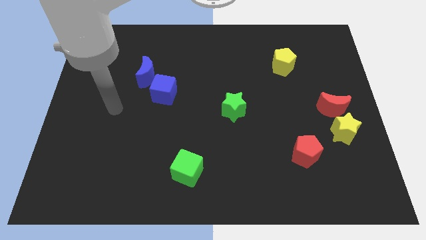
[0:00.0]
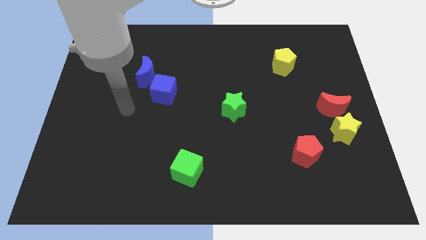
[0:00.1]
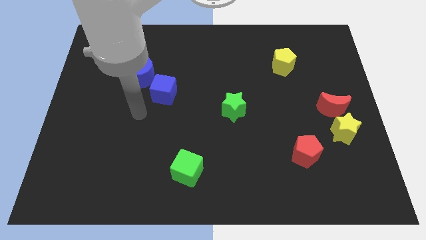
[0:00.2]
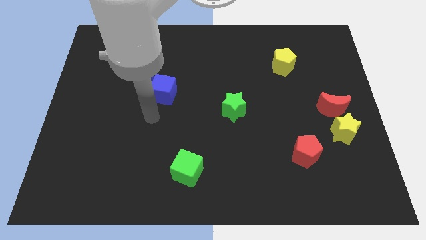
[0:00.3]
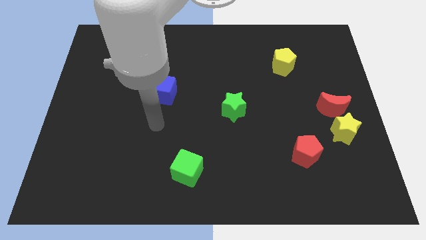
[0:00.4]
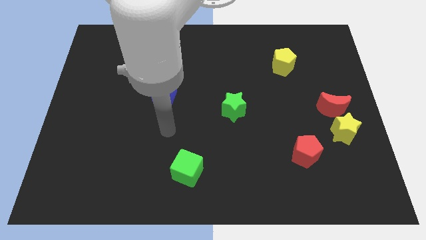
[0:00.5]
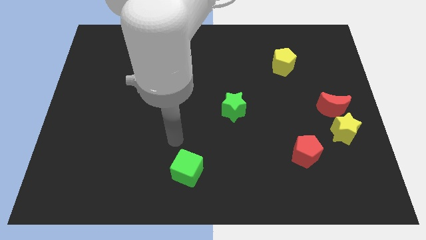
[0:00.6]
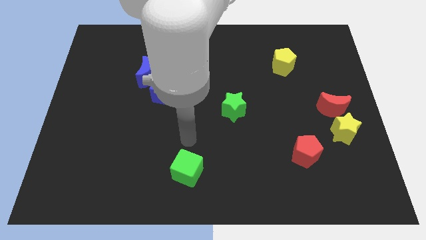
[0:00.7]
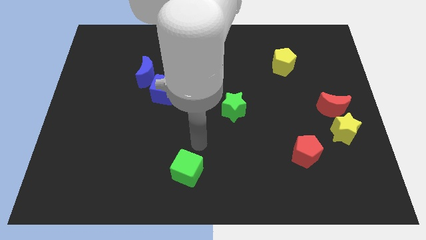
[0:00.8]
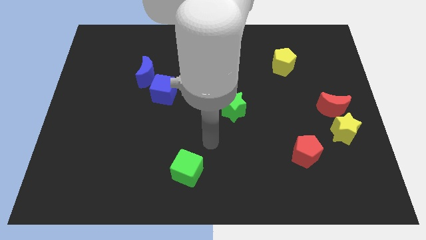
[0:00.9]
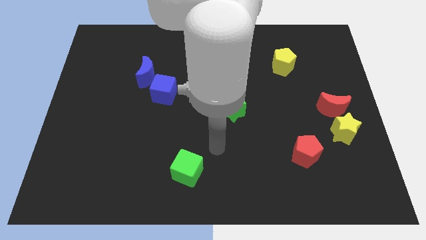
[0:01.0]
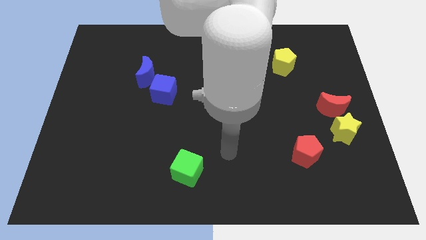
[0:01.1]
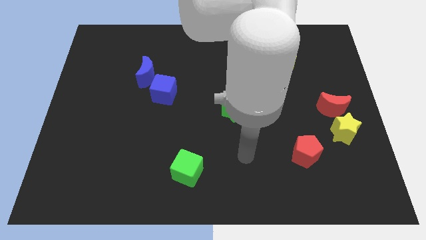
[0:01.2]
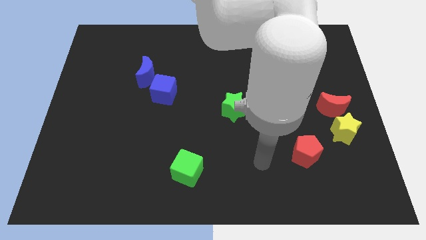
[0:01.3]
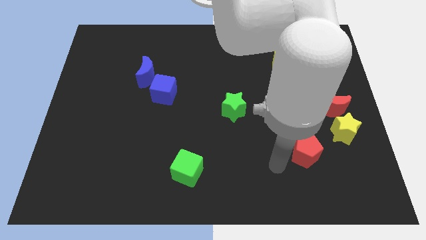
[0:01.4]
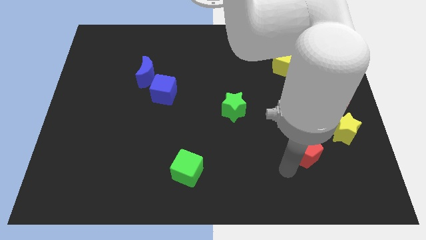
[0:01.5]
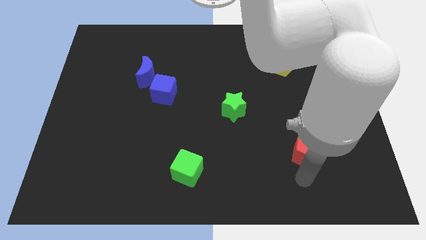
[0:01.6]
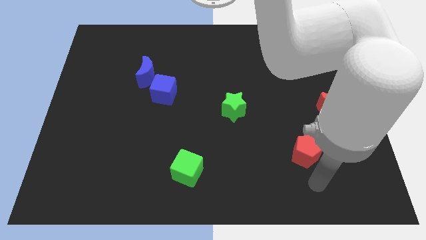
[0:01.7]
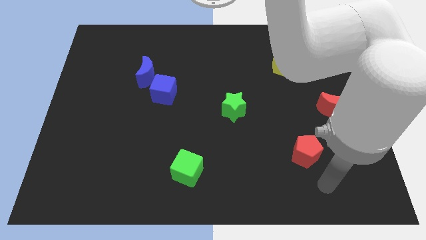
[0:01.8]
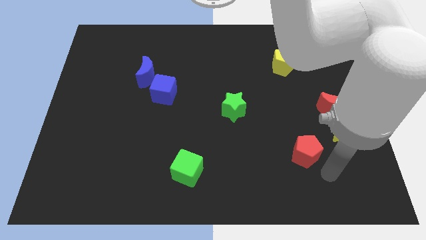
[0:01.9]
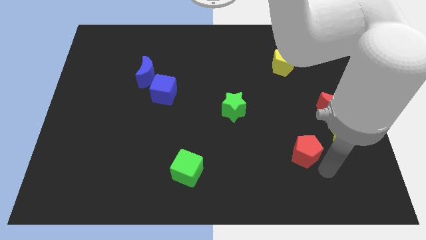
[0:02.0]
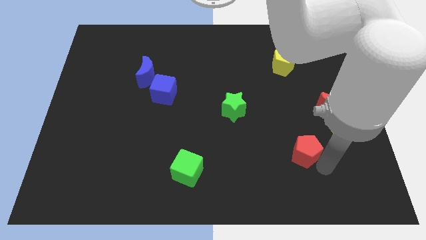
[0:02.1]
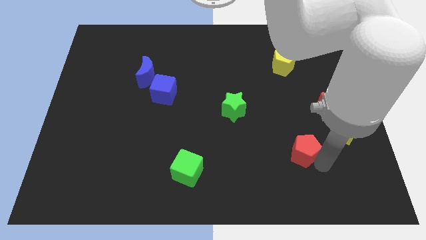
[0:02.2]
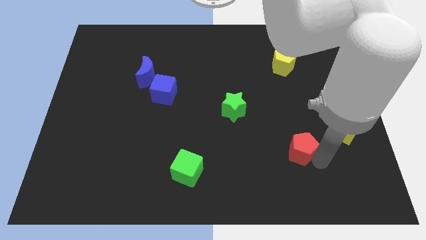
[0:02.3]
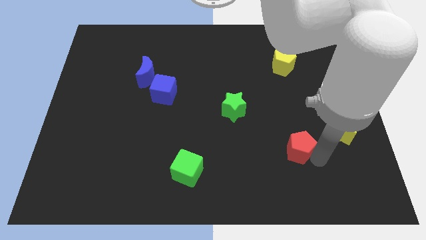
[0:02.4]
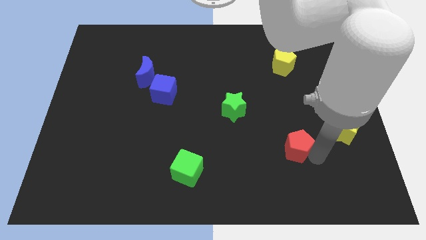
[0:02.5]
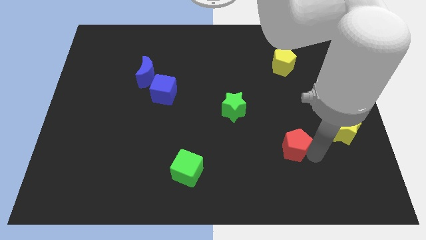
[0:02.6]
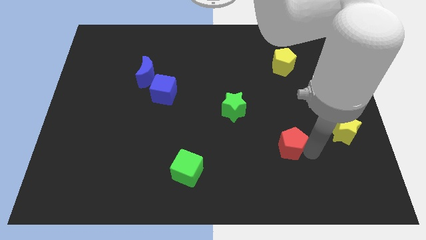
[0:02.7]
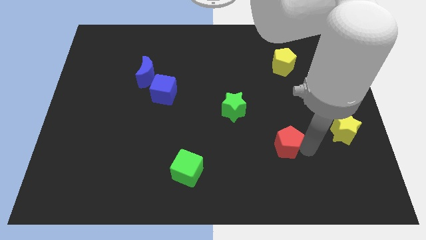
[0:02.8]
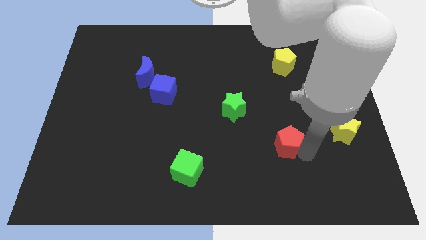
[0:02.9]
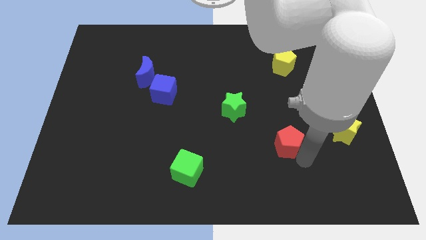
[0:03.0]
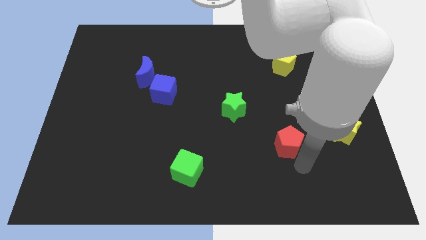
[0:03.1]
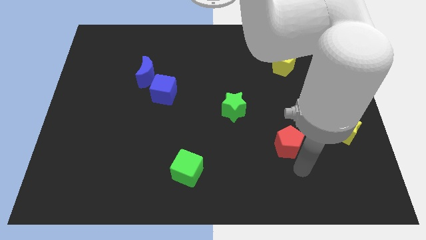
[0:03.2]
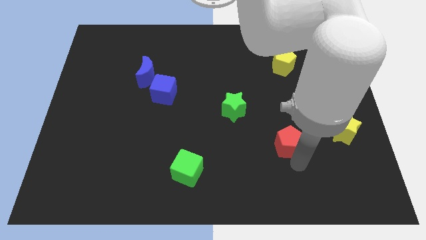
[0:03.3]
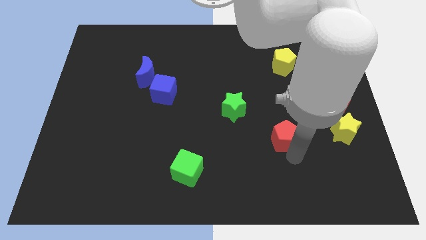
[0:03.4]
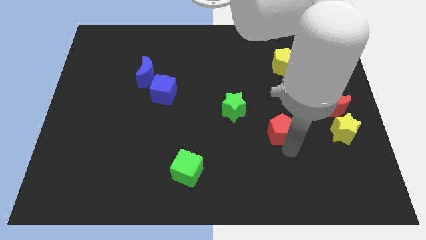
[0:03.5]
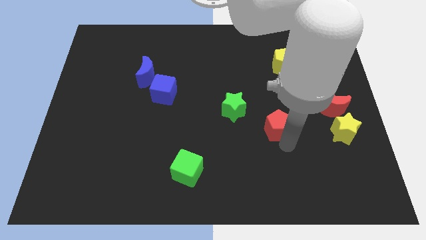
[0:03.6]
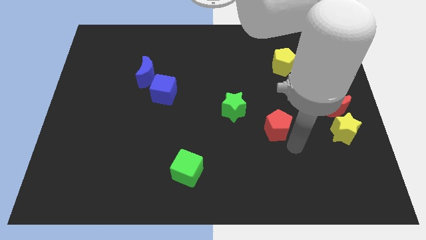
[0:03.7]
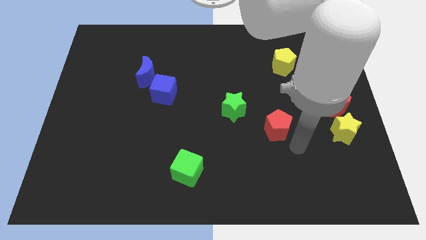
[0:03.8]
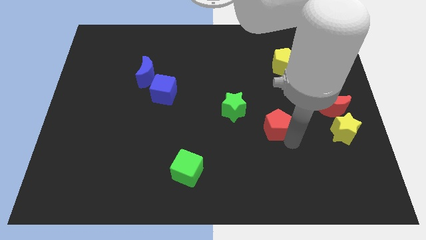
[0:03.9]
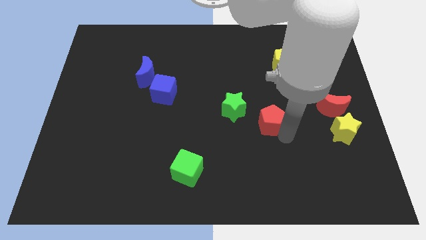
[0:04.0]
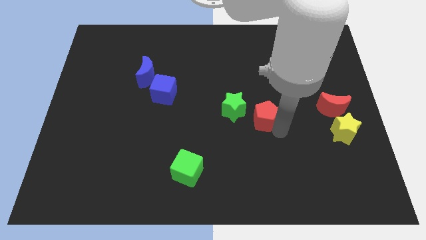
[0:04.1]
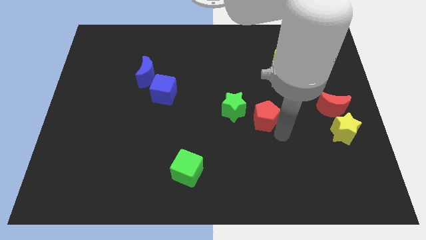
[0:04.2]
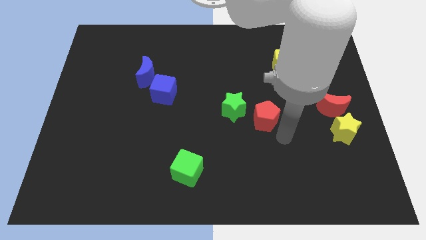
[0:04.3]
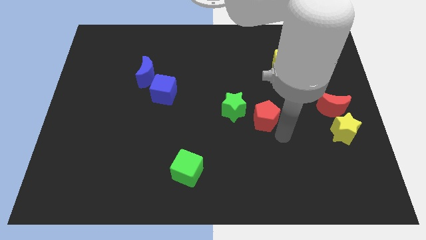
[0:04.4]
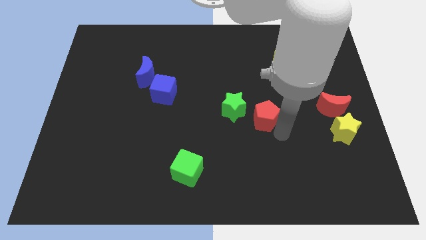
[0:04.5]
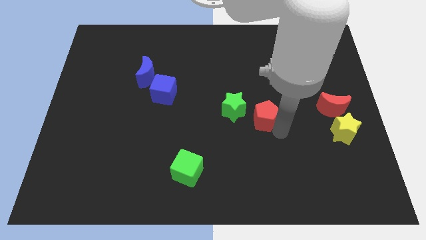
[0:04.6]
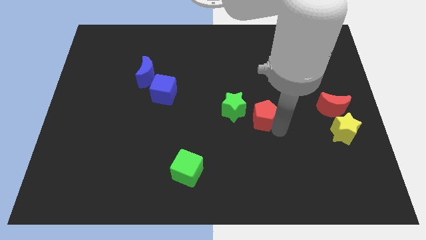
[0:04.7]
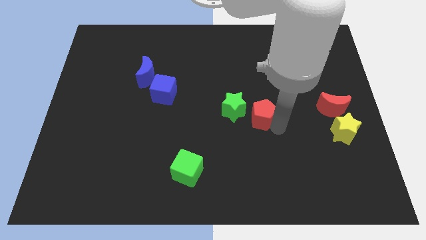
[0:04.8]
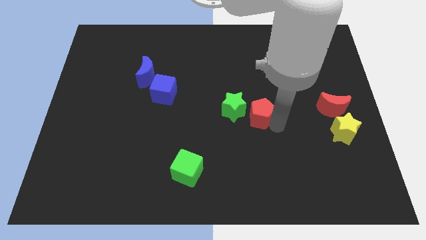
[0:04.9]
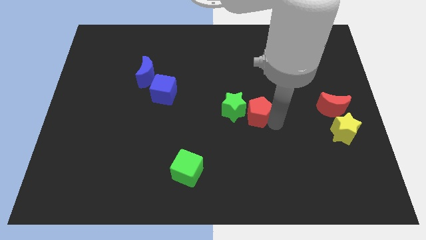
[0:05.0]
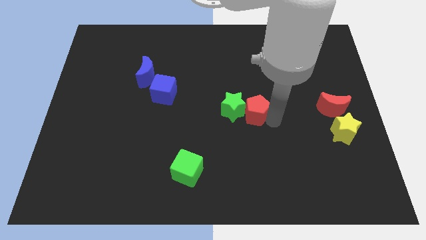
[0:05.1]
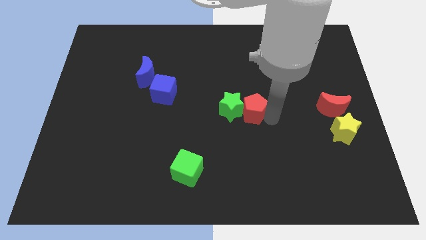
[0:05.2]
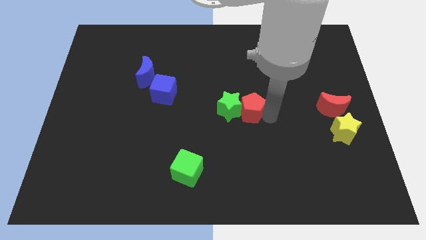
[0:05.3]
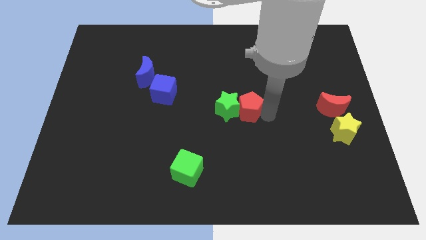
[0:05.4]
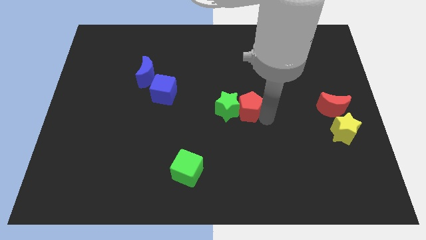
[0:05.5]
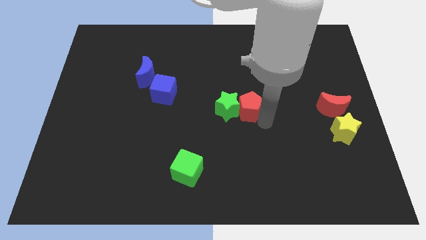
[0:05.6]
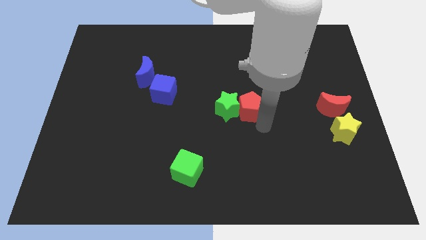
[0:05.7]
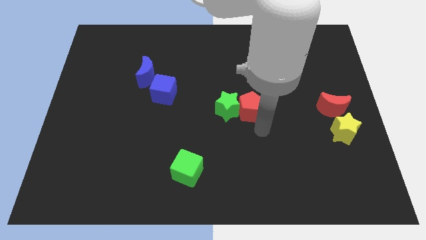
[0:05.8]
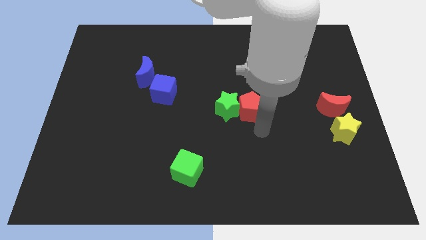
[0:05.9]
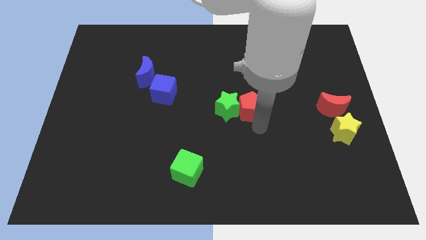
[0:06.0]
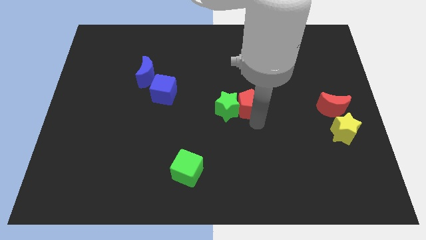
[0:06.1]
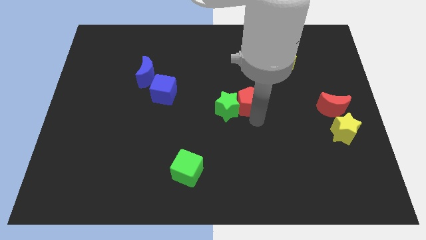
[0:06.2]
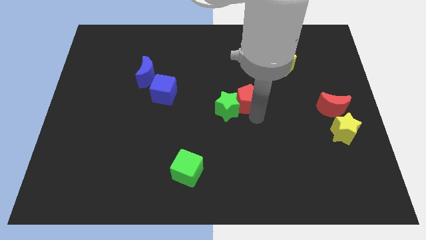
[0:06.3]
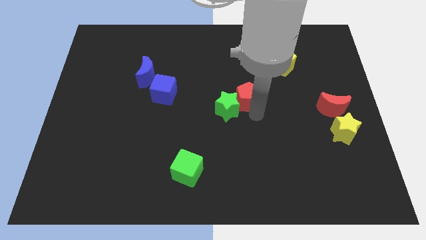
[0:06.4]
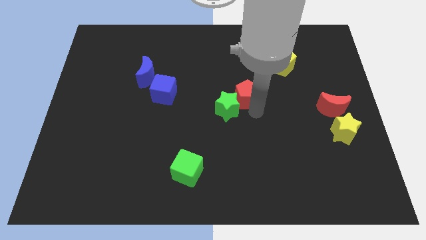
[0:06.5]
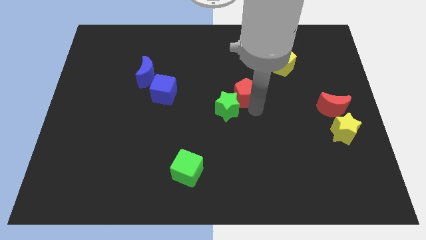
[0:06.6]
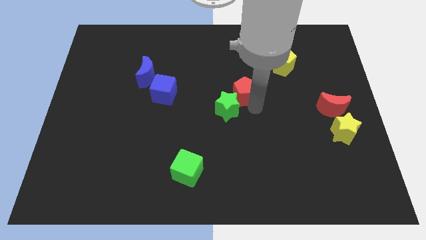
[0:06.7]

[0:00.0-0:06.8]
slide the red pentagon upwards and then to the left

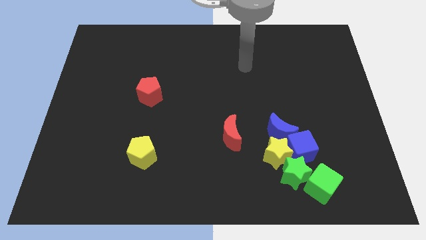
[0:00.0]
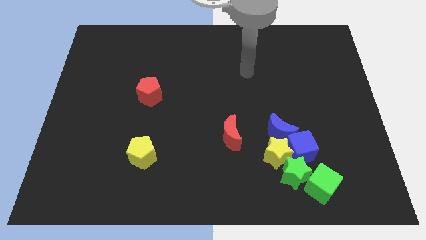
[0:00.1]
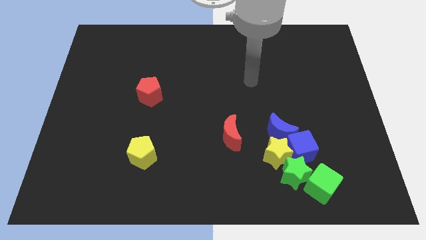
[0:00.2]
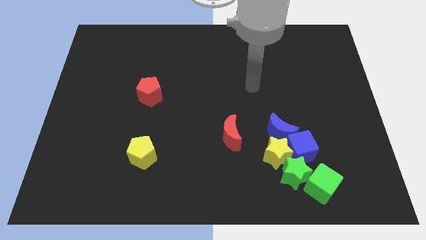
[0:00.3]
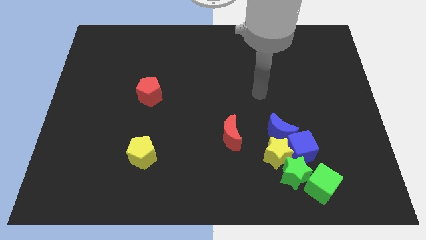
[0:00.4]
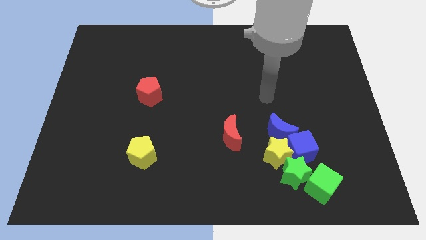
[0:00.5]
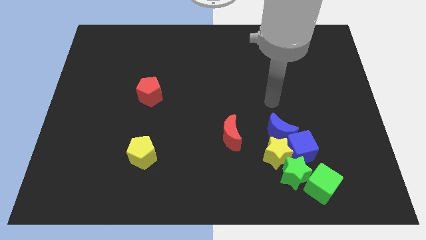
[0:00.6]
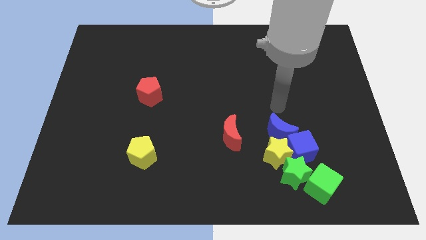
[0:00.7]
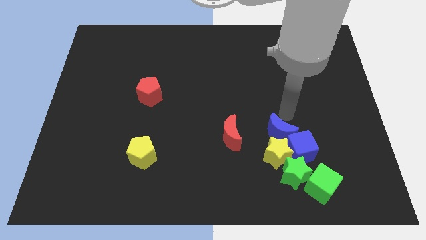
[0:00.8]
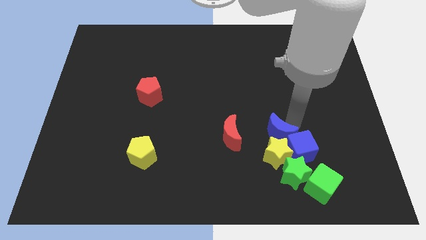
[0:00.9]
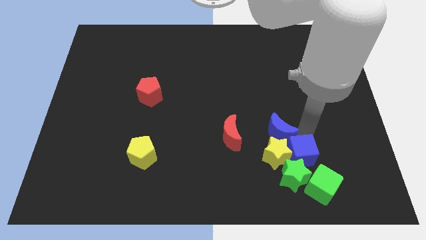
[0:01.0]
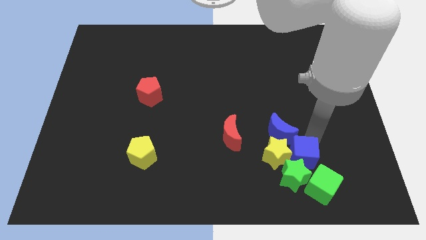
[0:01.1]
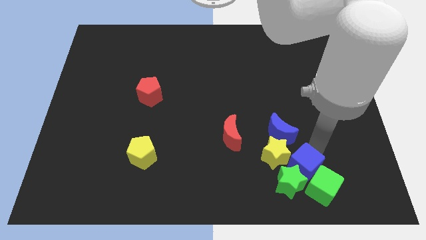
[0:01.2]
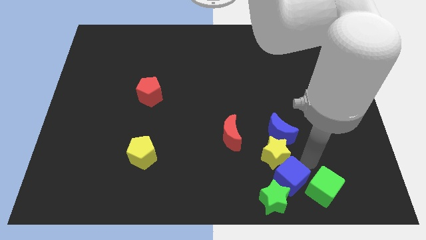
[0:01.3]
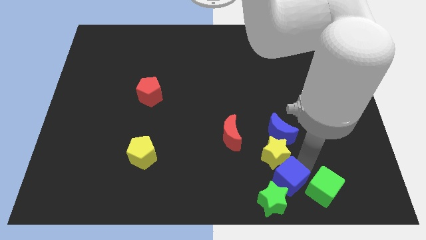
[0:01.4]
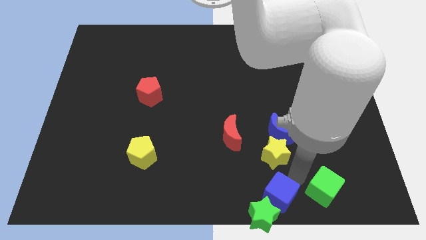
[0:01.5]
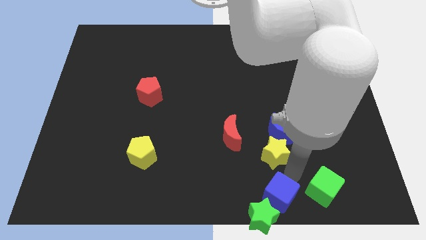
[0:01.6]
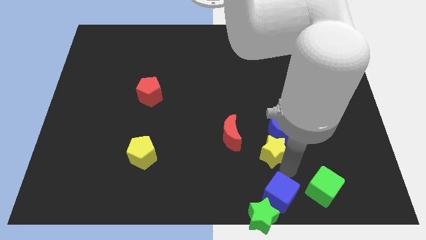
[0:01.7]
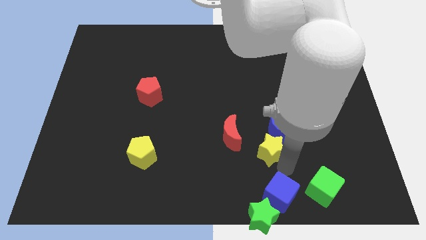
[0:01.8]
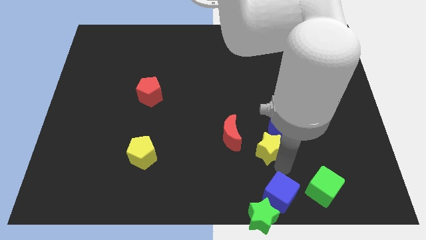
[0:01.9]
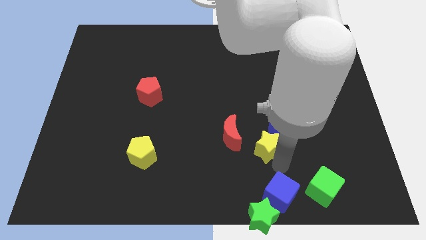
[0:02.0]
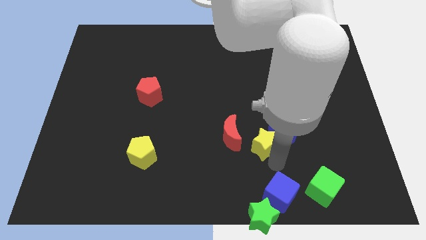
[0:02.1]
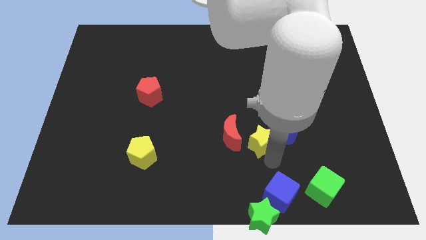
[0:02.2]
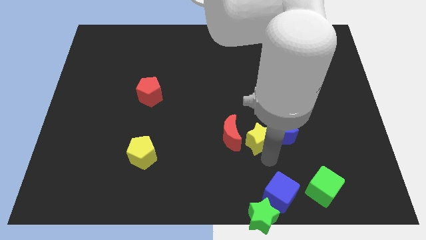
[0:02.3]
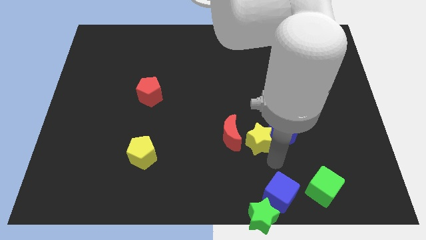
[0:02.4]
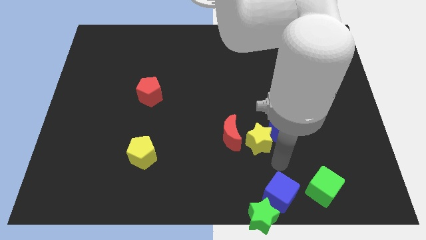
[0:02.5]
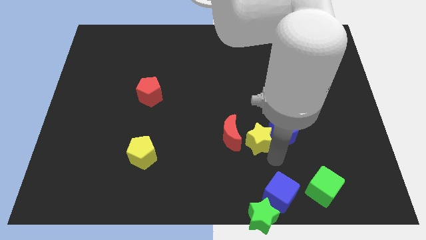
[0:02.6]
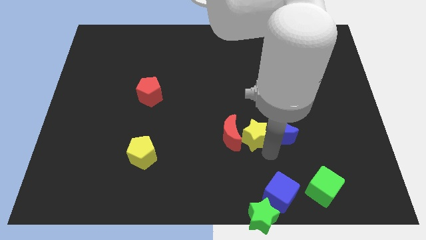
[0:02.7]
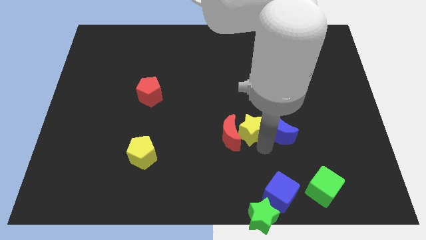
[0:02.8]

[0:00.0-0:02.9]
move the yellow star up and then to the left somewhat
